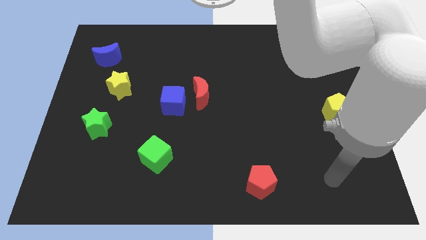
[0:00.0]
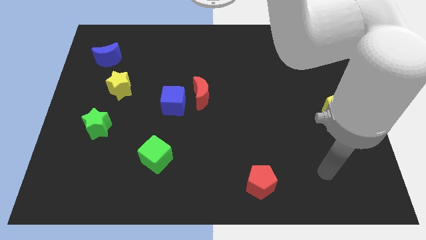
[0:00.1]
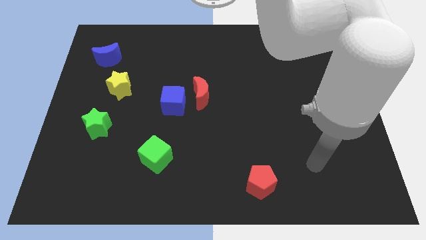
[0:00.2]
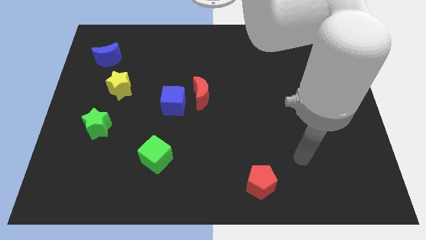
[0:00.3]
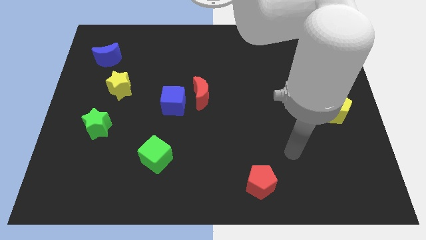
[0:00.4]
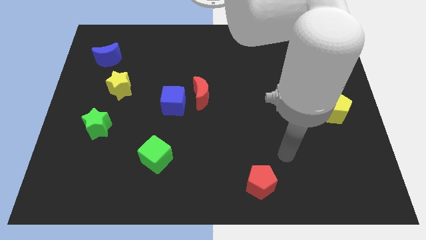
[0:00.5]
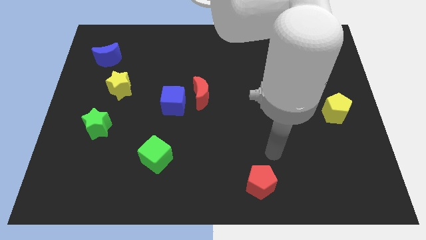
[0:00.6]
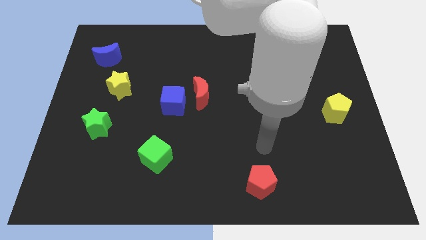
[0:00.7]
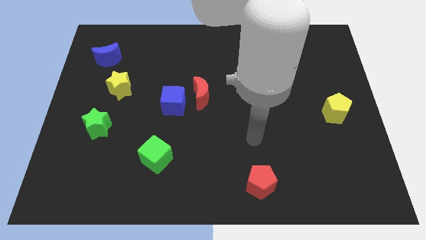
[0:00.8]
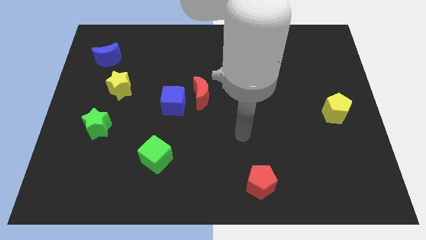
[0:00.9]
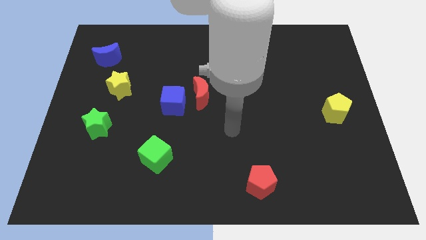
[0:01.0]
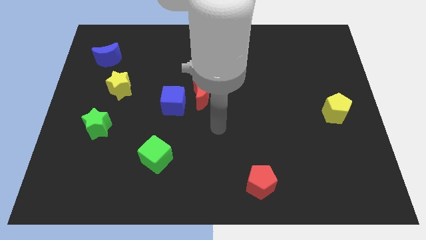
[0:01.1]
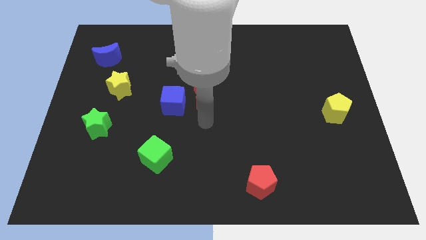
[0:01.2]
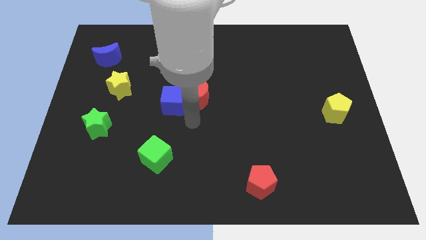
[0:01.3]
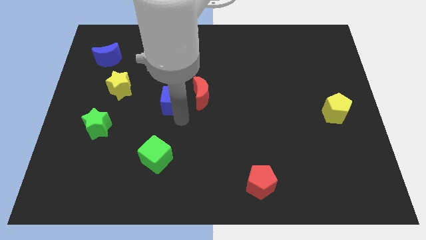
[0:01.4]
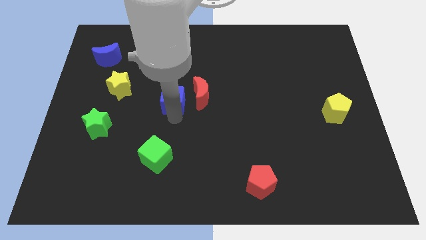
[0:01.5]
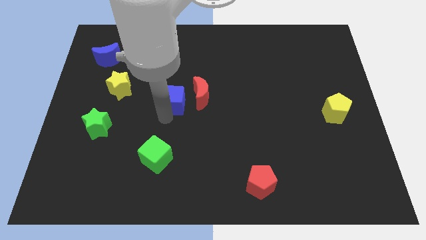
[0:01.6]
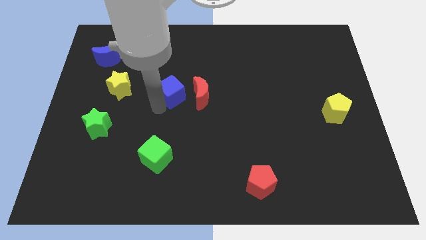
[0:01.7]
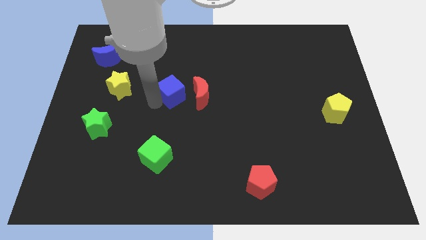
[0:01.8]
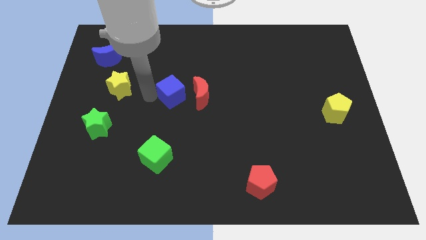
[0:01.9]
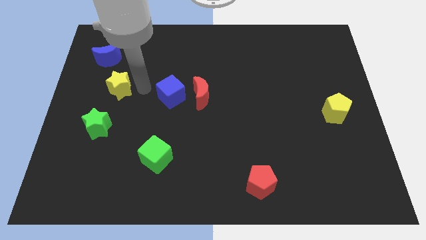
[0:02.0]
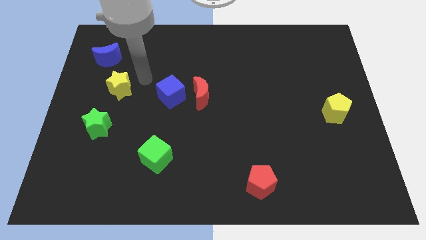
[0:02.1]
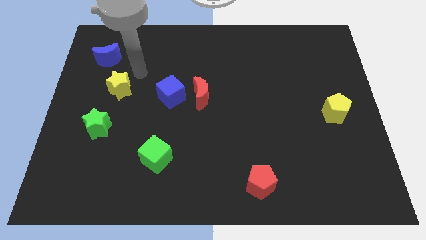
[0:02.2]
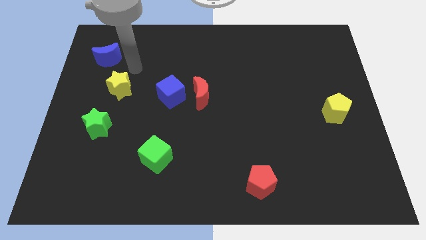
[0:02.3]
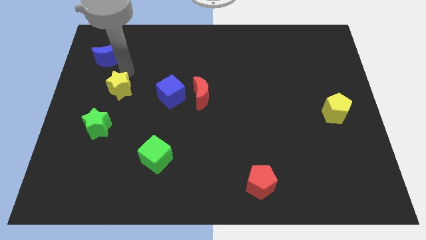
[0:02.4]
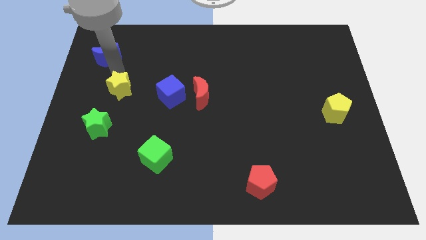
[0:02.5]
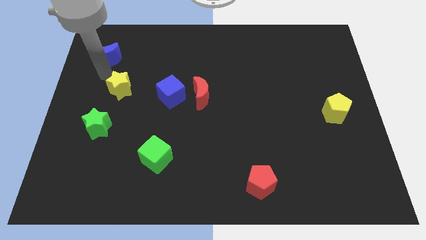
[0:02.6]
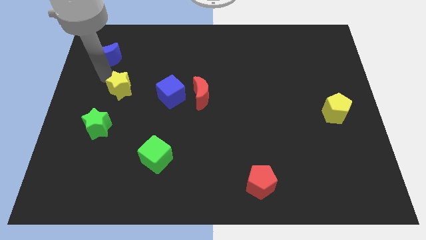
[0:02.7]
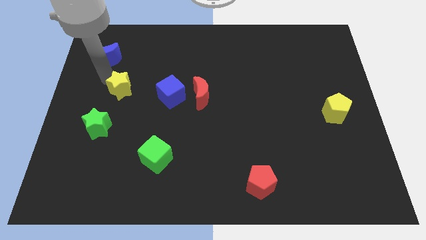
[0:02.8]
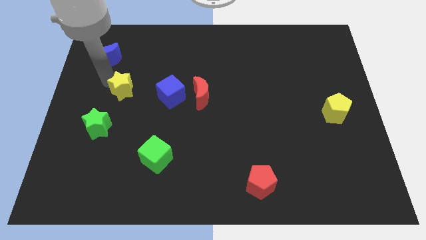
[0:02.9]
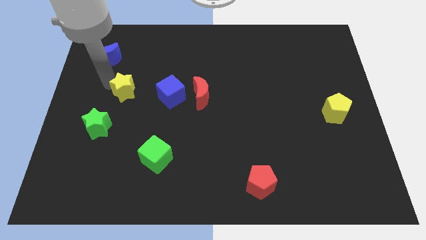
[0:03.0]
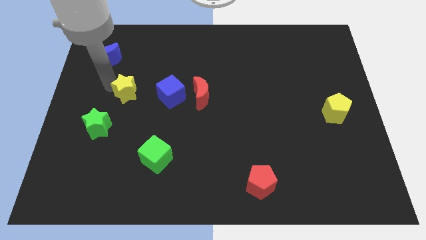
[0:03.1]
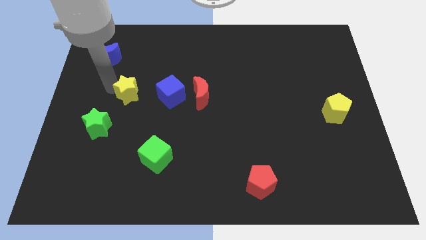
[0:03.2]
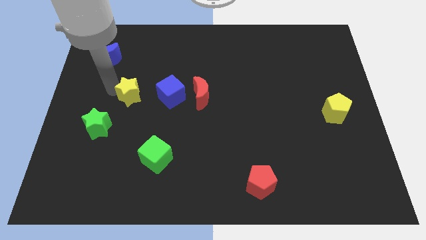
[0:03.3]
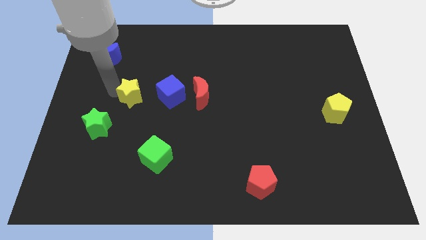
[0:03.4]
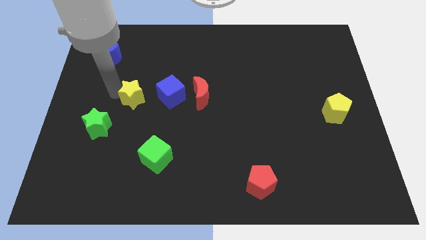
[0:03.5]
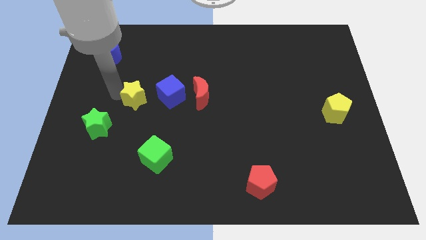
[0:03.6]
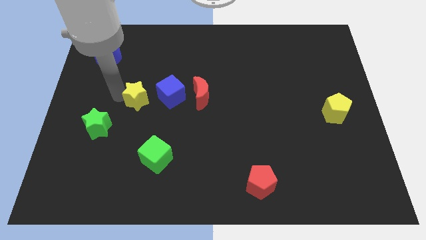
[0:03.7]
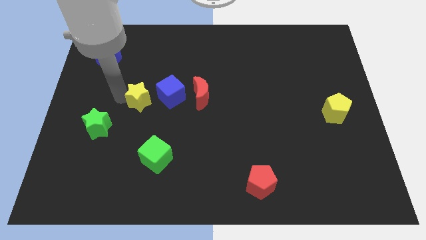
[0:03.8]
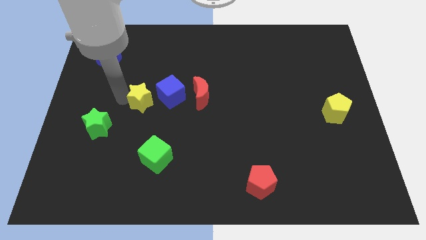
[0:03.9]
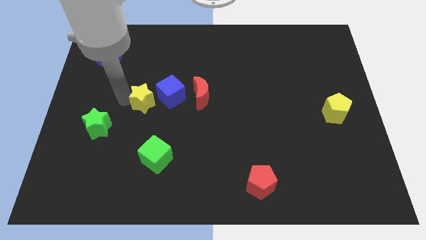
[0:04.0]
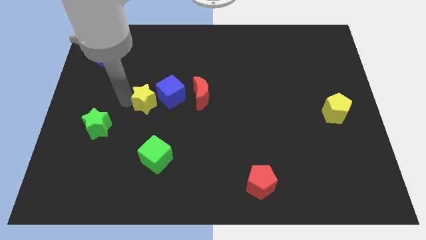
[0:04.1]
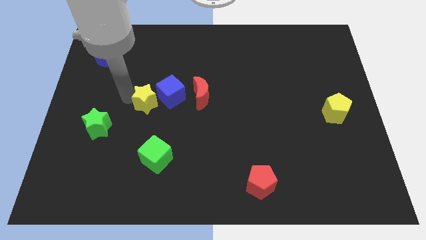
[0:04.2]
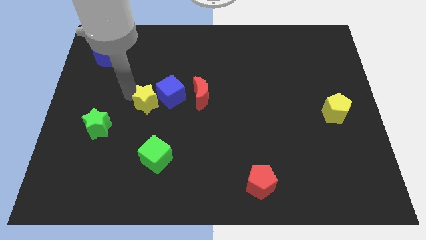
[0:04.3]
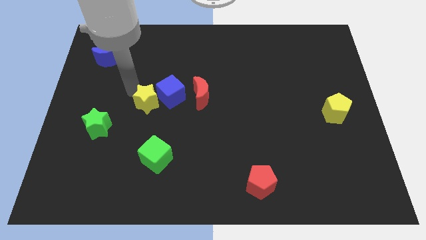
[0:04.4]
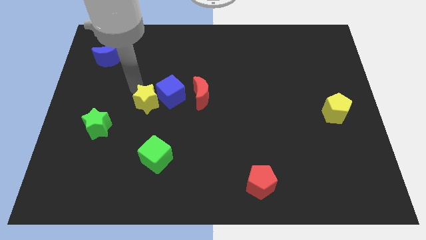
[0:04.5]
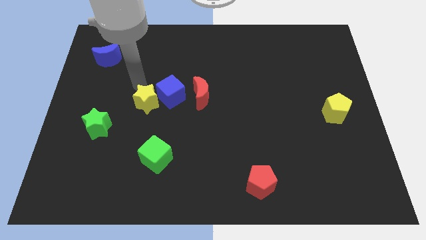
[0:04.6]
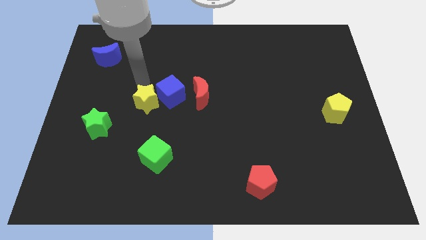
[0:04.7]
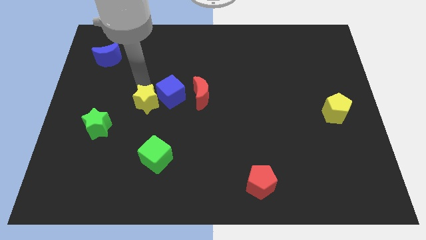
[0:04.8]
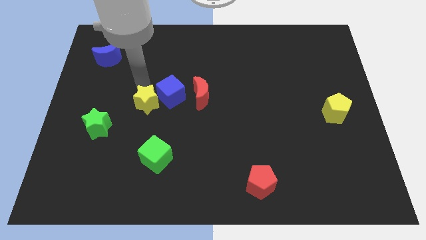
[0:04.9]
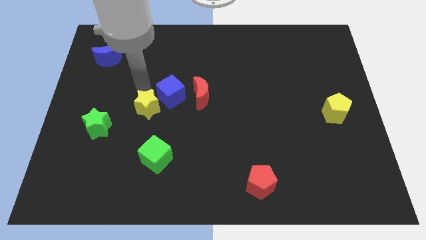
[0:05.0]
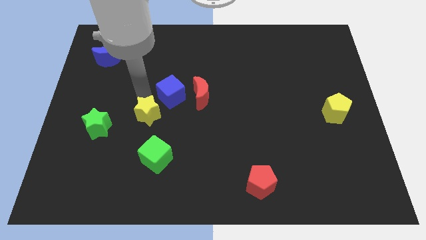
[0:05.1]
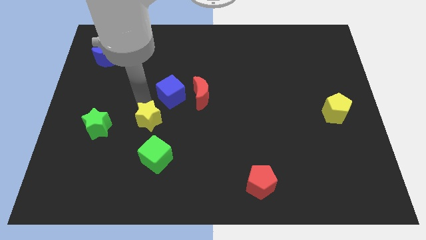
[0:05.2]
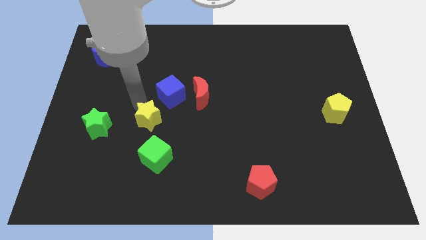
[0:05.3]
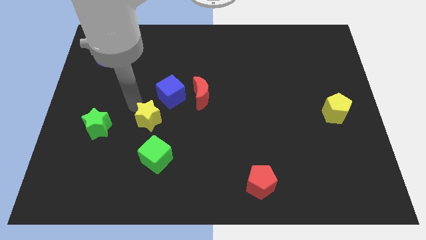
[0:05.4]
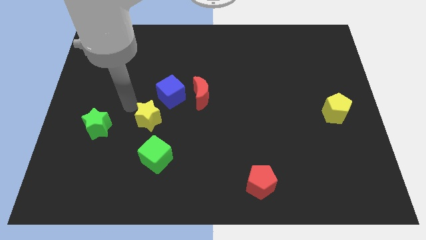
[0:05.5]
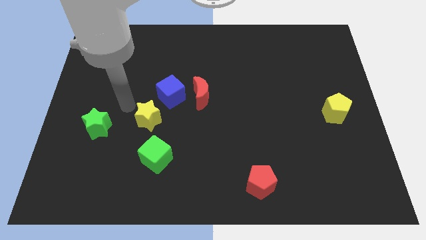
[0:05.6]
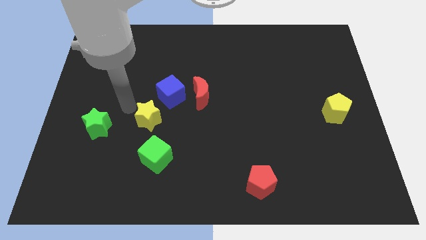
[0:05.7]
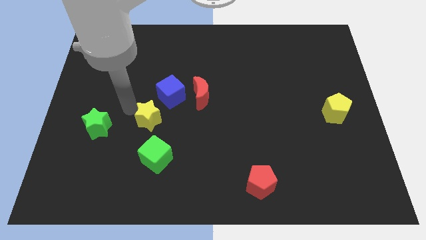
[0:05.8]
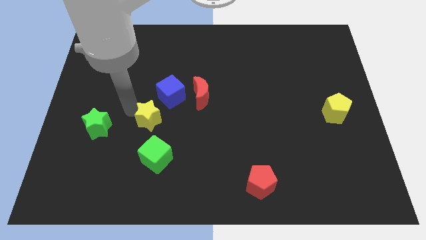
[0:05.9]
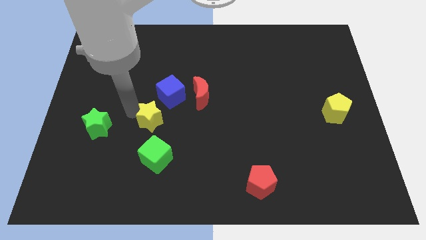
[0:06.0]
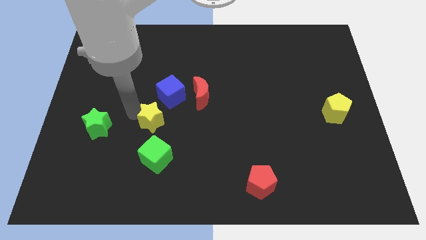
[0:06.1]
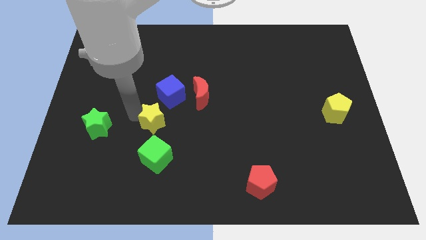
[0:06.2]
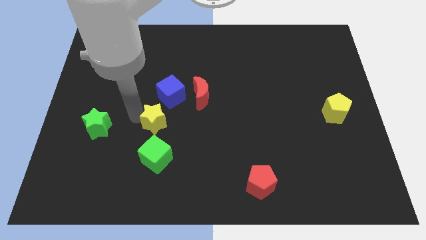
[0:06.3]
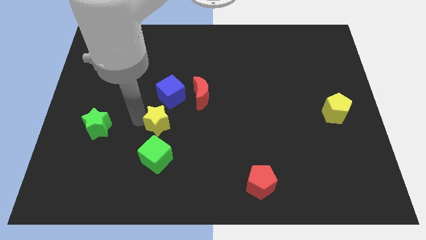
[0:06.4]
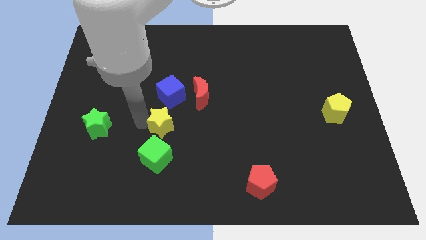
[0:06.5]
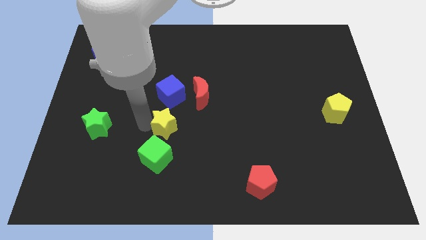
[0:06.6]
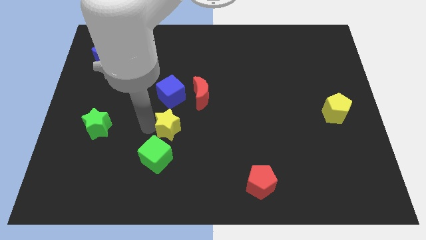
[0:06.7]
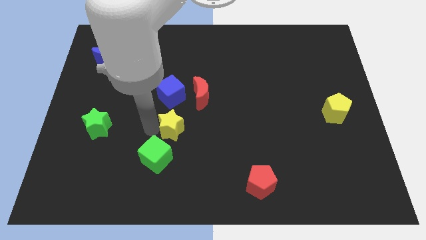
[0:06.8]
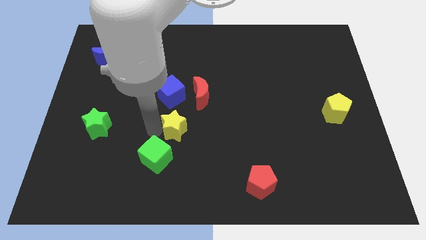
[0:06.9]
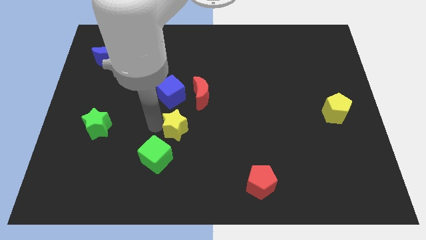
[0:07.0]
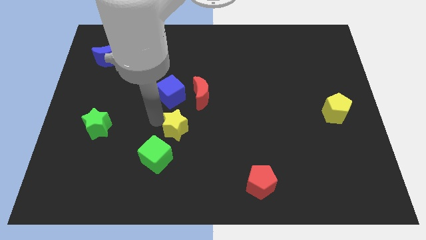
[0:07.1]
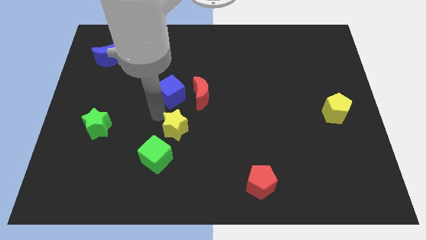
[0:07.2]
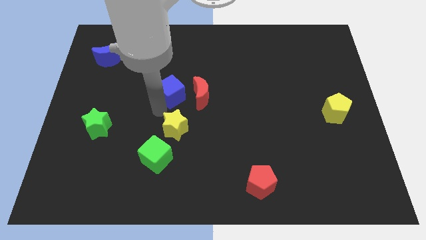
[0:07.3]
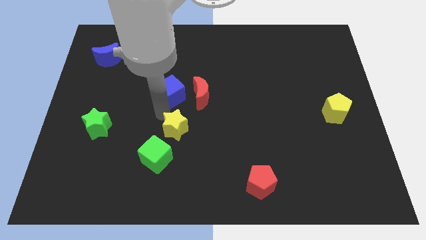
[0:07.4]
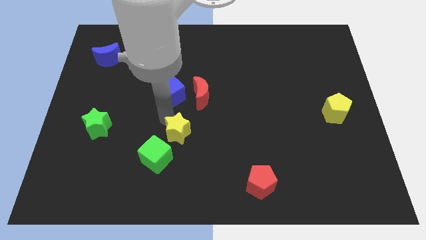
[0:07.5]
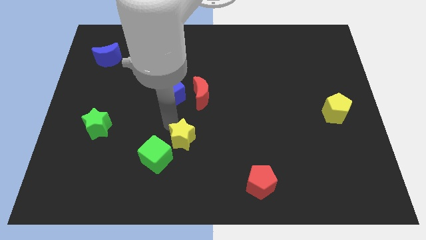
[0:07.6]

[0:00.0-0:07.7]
put the yellow star to the right side of the green cube
